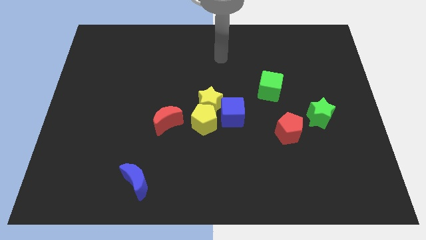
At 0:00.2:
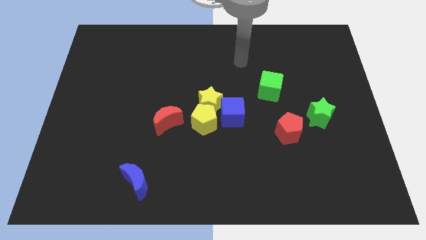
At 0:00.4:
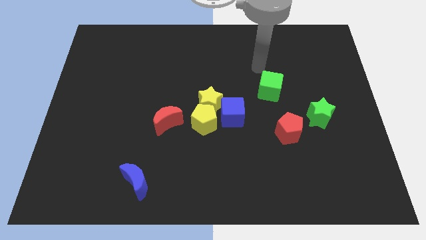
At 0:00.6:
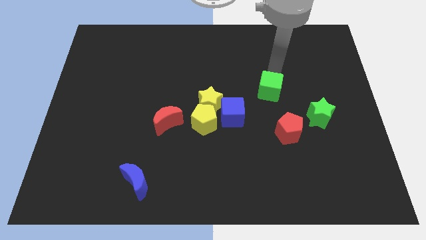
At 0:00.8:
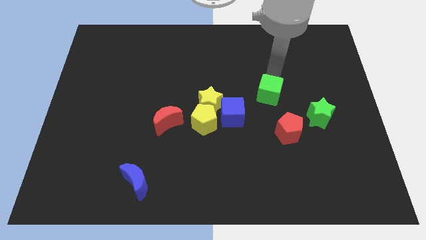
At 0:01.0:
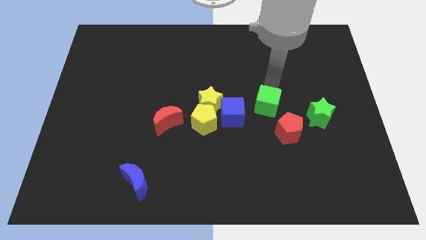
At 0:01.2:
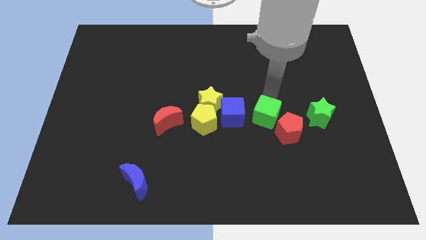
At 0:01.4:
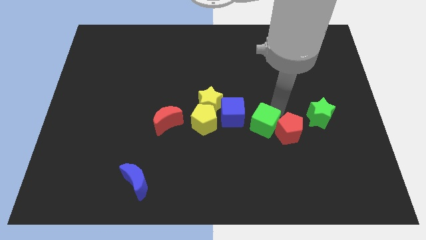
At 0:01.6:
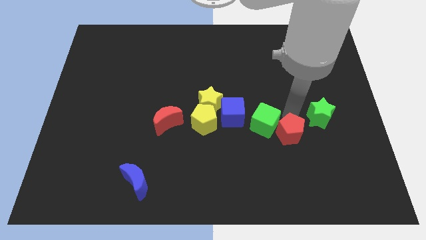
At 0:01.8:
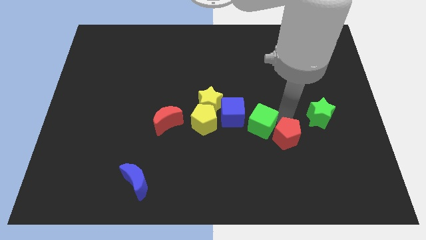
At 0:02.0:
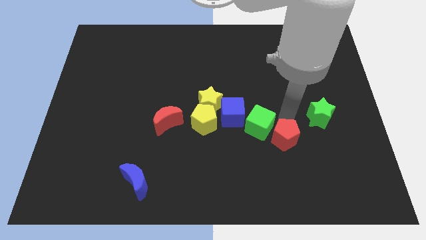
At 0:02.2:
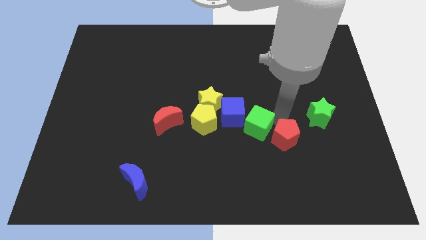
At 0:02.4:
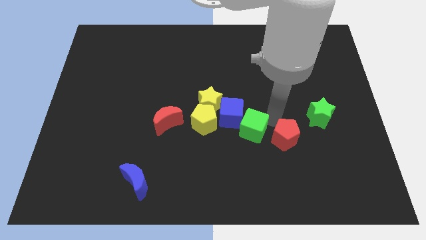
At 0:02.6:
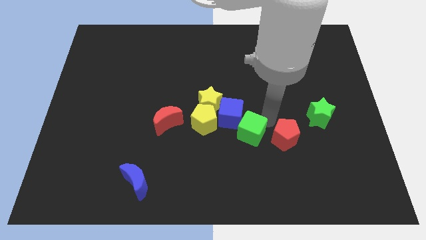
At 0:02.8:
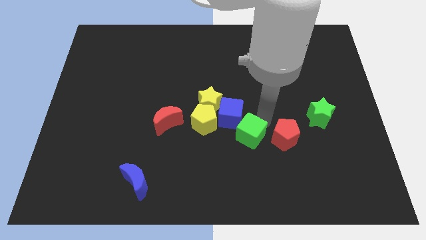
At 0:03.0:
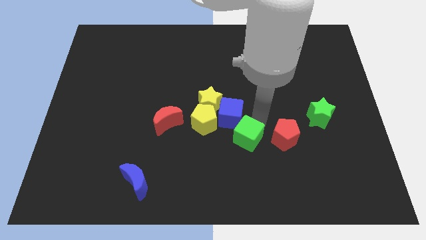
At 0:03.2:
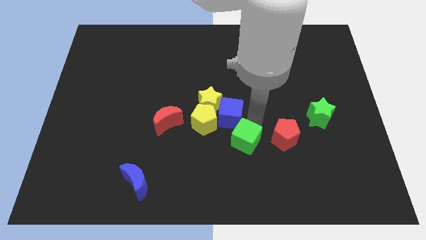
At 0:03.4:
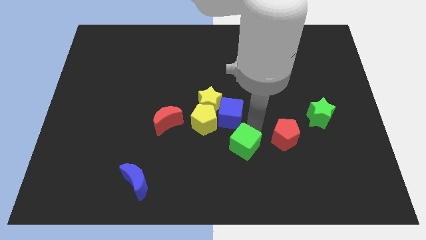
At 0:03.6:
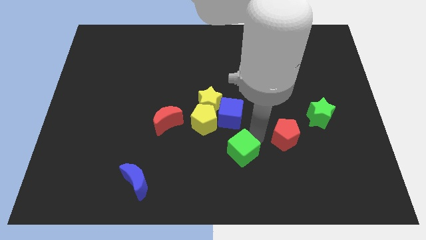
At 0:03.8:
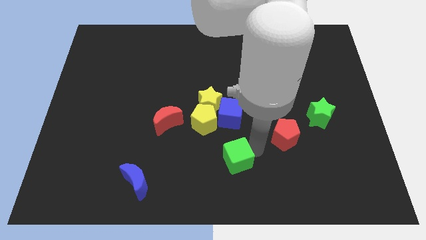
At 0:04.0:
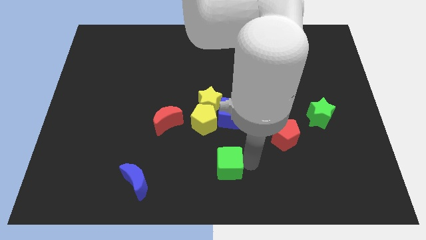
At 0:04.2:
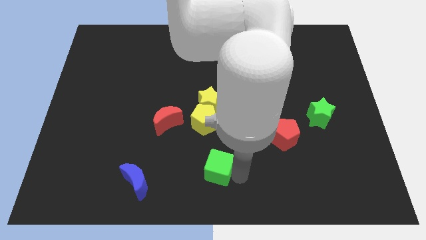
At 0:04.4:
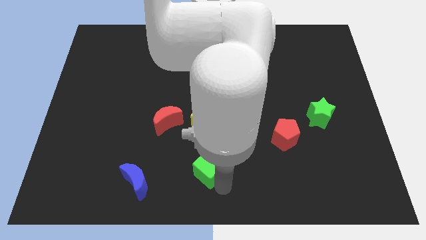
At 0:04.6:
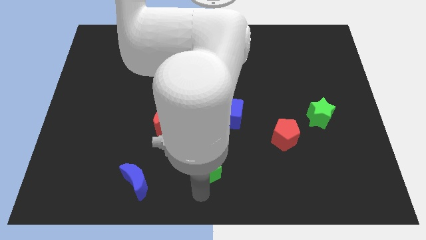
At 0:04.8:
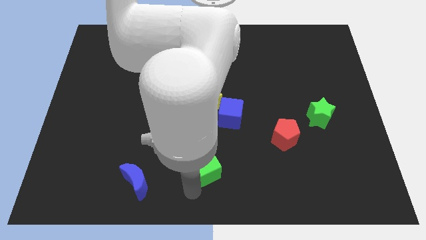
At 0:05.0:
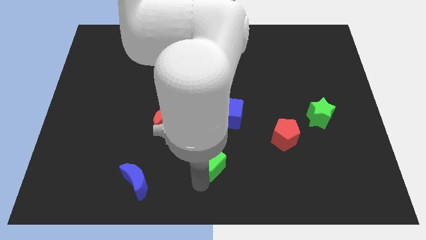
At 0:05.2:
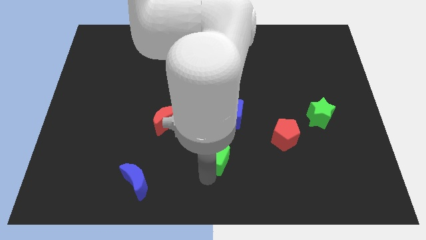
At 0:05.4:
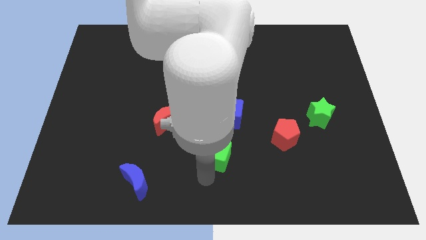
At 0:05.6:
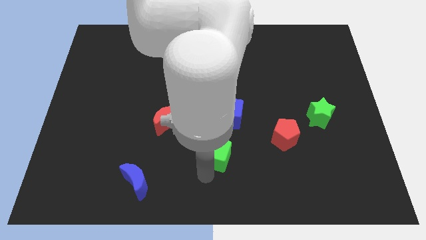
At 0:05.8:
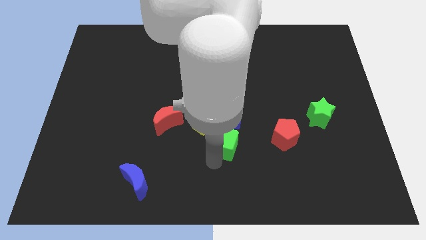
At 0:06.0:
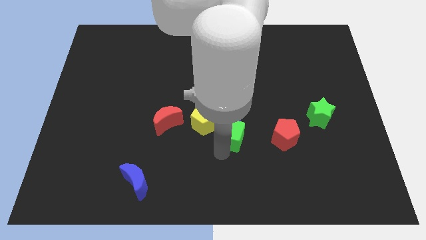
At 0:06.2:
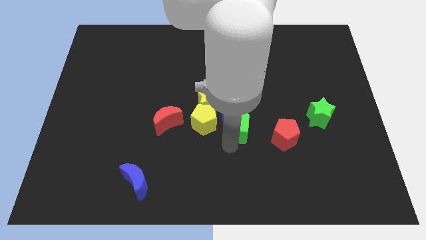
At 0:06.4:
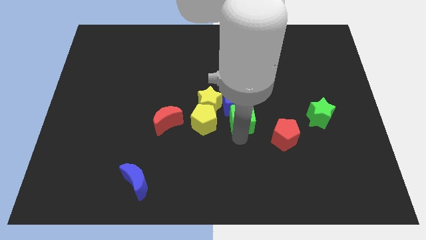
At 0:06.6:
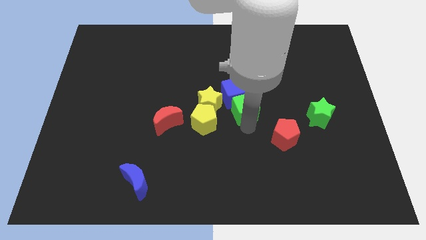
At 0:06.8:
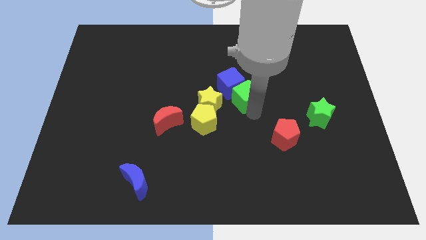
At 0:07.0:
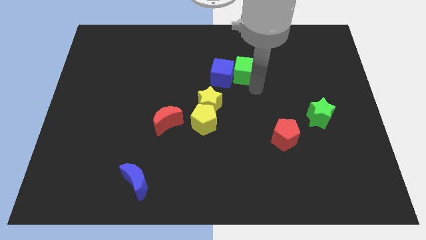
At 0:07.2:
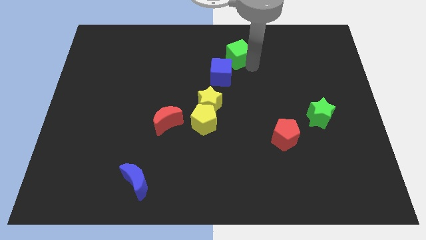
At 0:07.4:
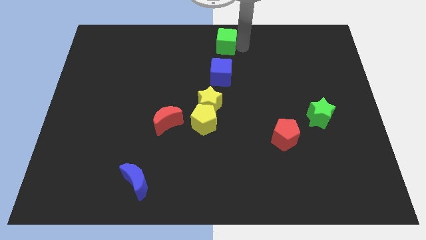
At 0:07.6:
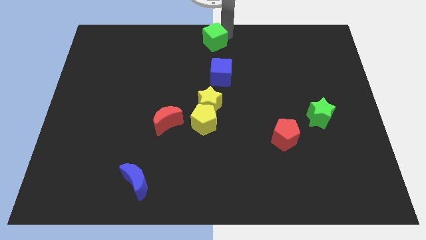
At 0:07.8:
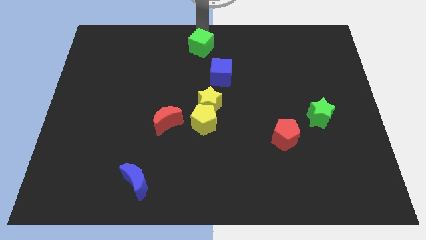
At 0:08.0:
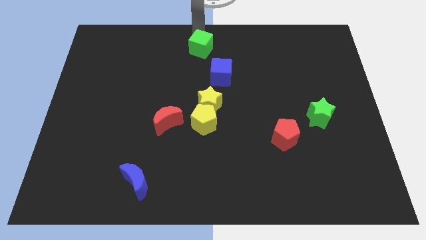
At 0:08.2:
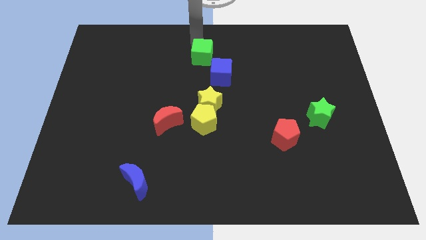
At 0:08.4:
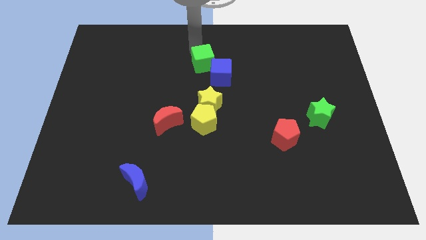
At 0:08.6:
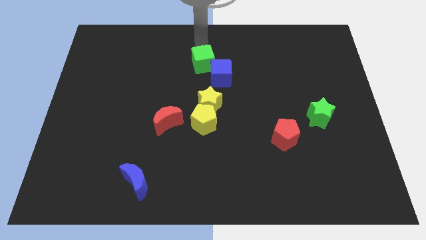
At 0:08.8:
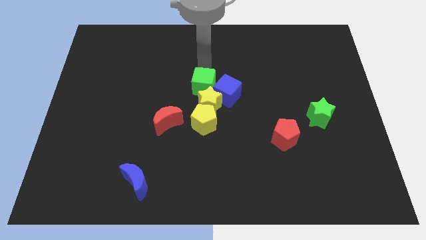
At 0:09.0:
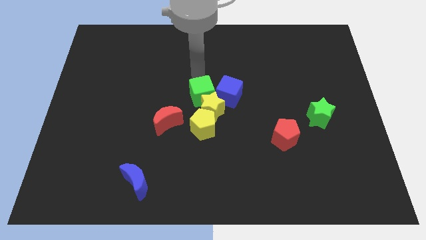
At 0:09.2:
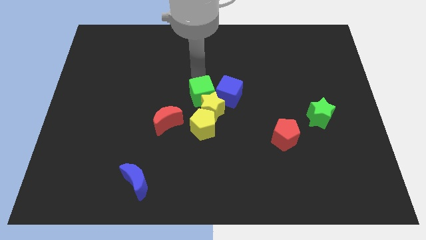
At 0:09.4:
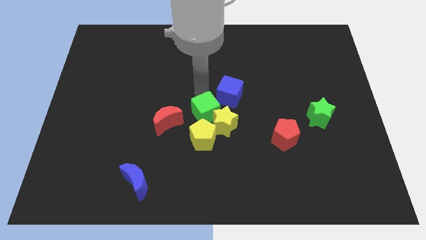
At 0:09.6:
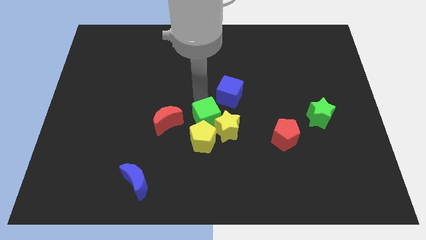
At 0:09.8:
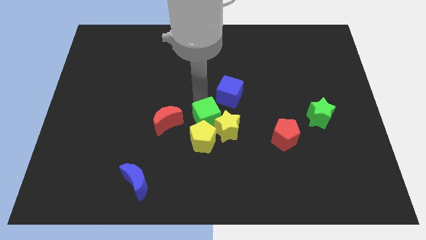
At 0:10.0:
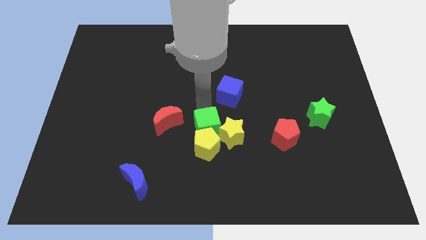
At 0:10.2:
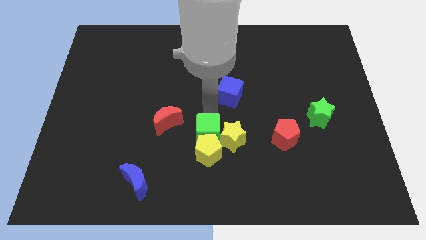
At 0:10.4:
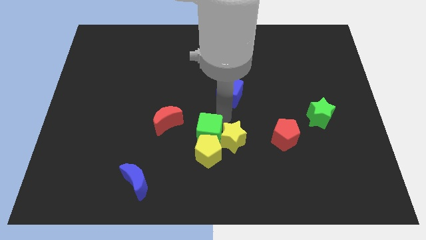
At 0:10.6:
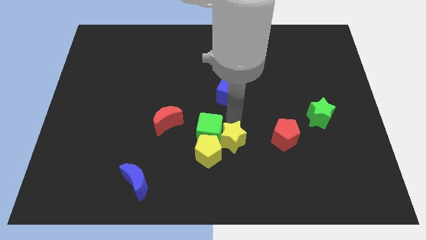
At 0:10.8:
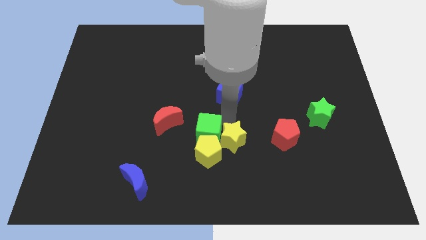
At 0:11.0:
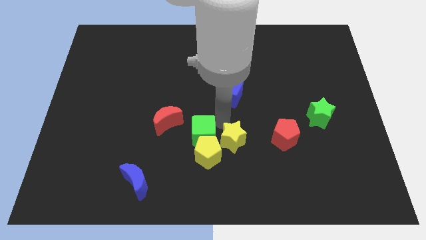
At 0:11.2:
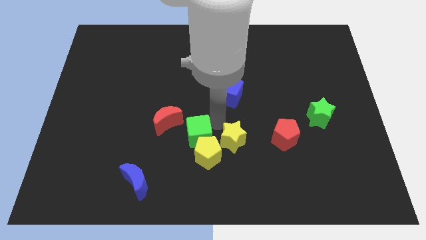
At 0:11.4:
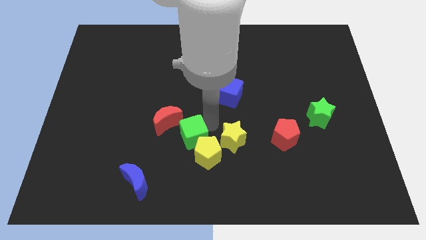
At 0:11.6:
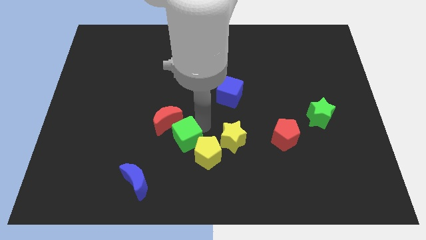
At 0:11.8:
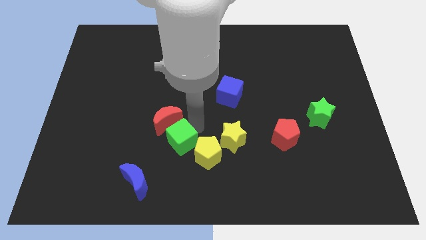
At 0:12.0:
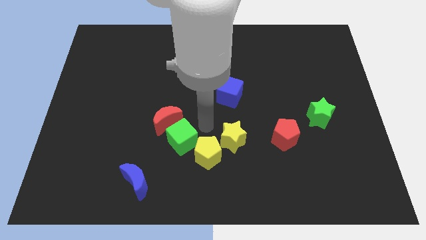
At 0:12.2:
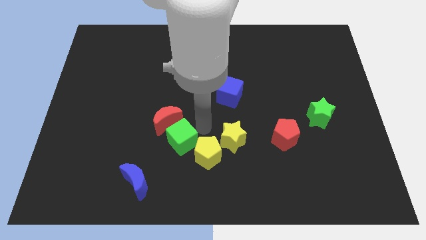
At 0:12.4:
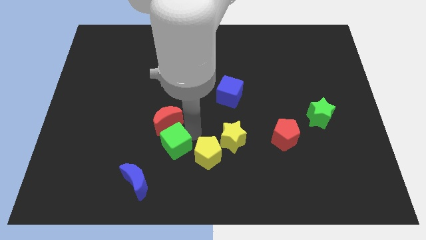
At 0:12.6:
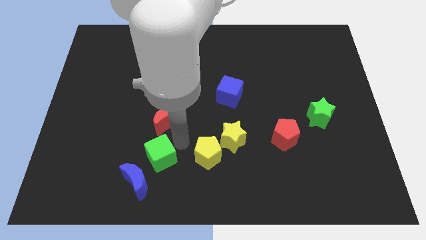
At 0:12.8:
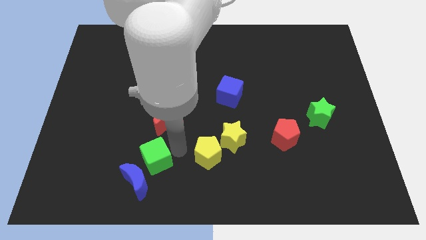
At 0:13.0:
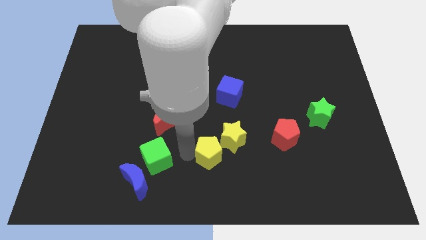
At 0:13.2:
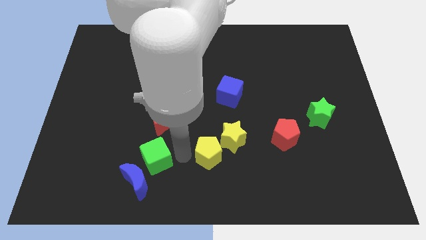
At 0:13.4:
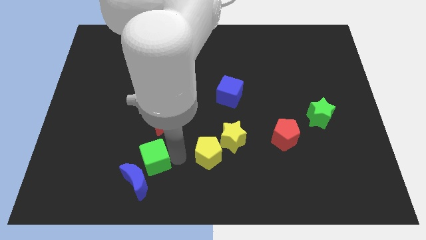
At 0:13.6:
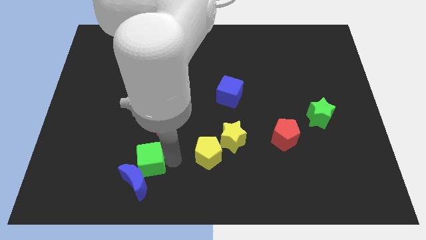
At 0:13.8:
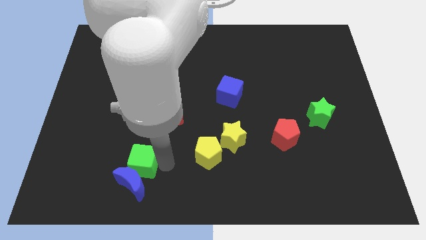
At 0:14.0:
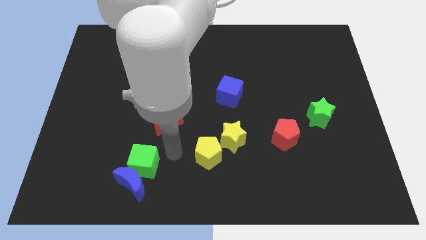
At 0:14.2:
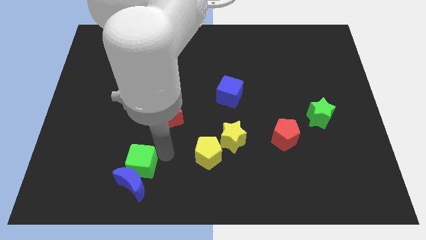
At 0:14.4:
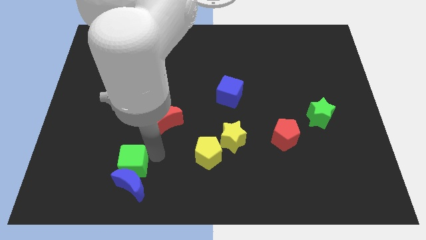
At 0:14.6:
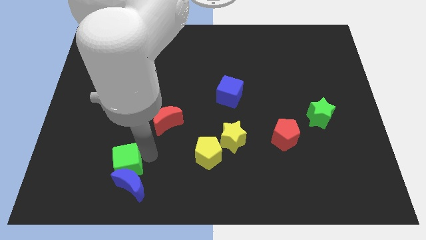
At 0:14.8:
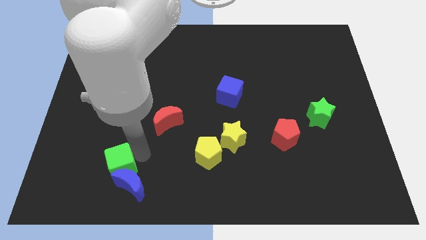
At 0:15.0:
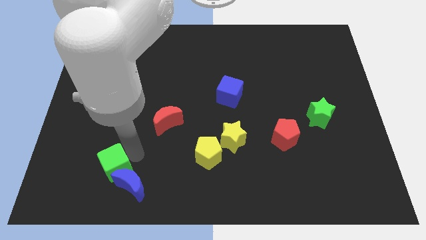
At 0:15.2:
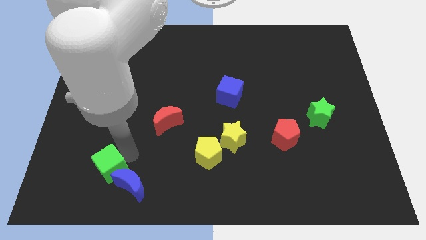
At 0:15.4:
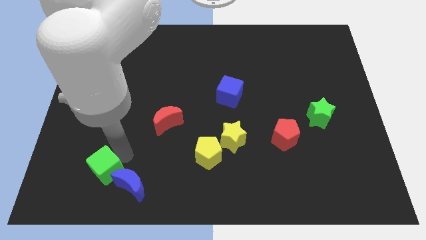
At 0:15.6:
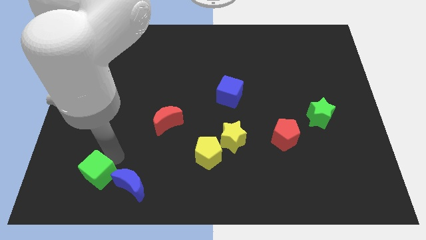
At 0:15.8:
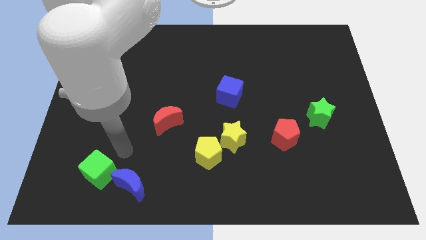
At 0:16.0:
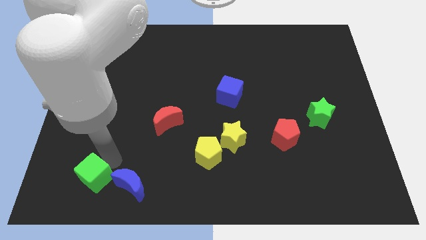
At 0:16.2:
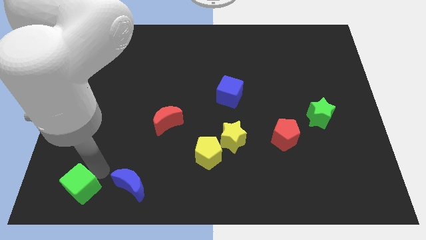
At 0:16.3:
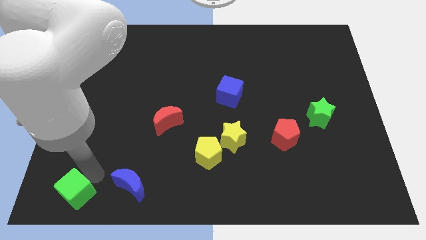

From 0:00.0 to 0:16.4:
move the green cube to the bottom left corner
